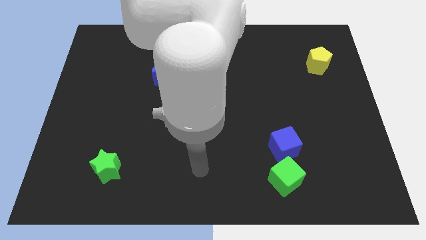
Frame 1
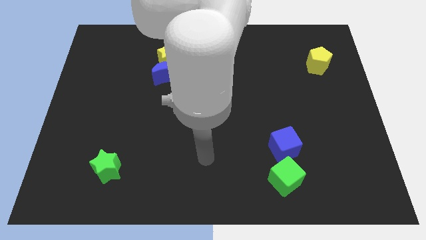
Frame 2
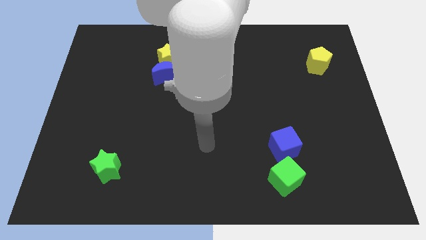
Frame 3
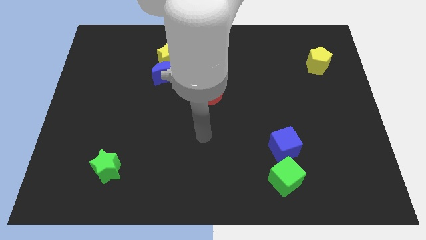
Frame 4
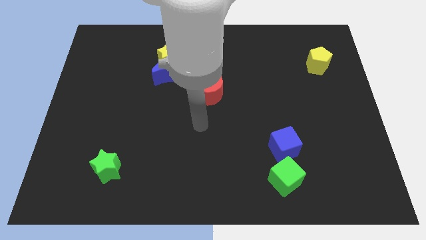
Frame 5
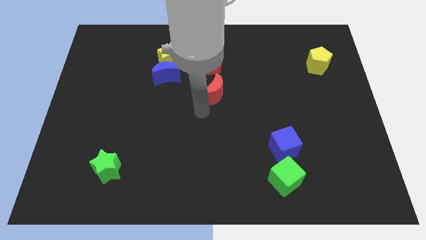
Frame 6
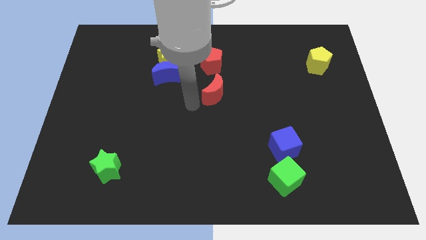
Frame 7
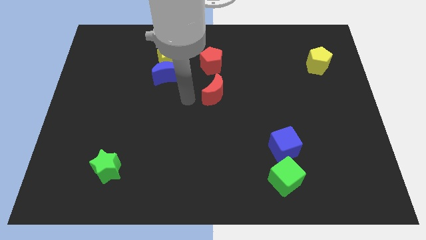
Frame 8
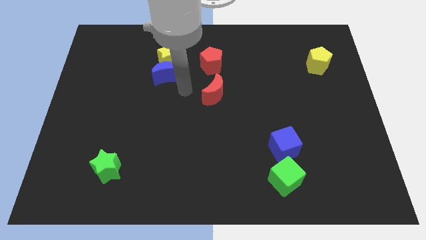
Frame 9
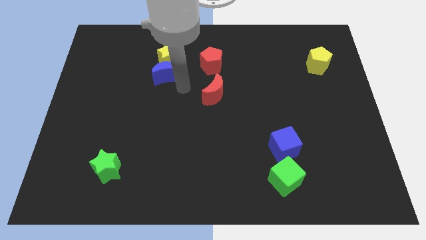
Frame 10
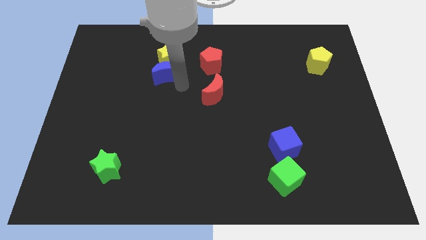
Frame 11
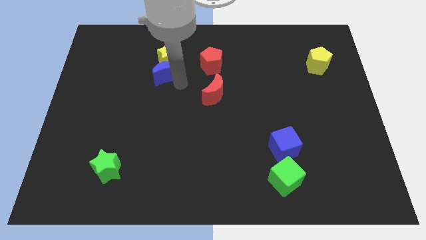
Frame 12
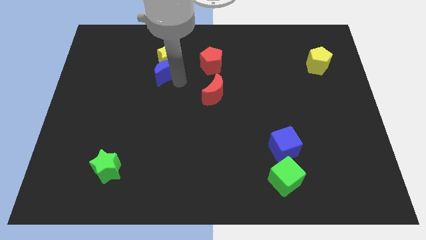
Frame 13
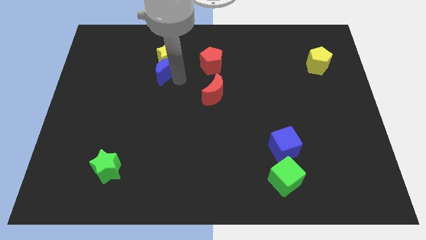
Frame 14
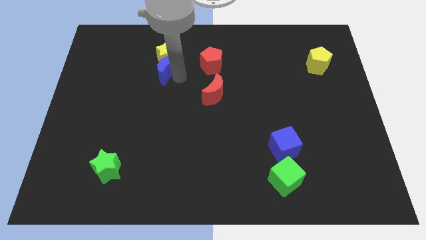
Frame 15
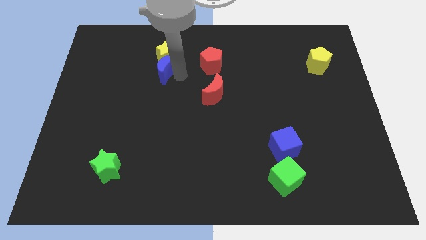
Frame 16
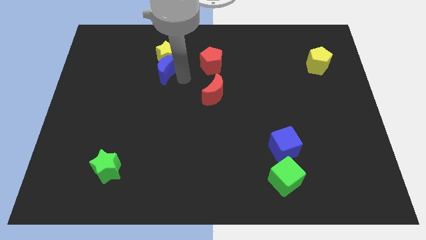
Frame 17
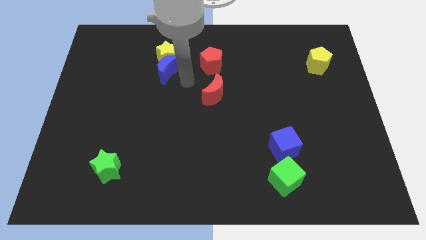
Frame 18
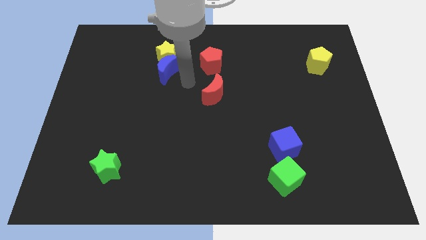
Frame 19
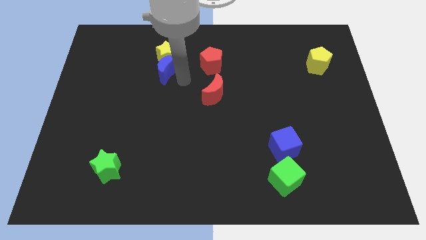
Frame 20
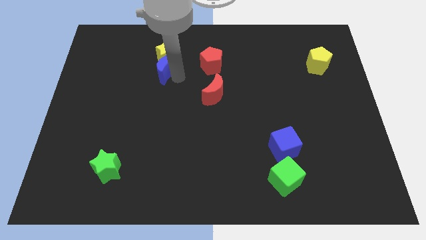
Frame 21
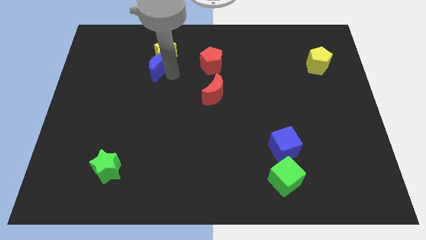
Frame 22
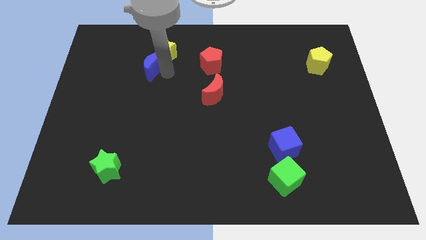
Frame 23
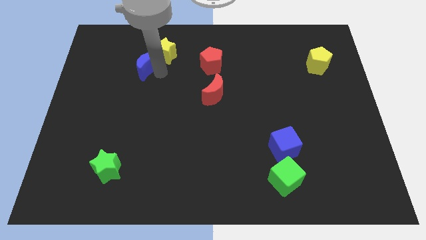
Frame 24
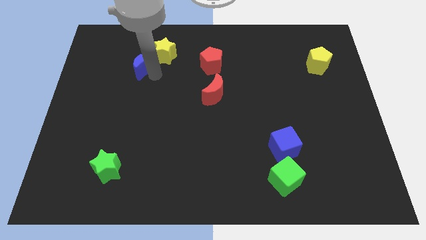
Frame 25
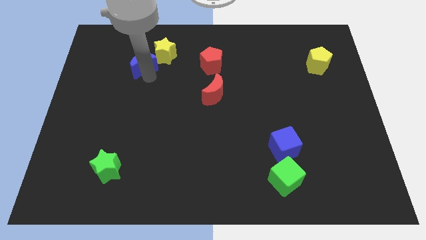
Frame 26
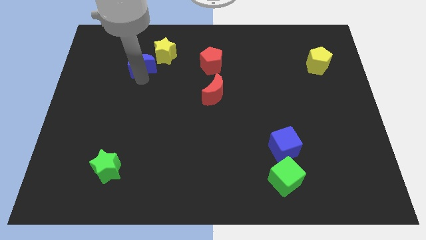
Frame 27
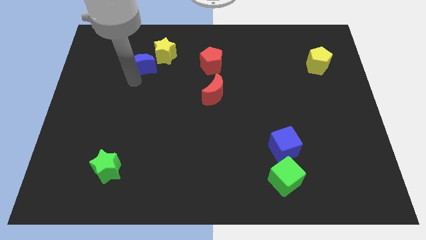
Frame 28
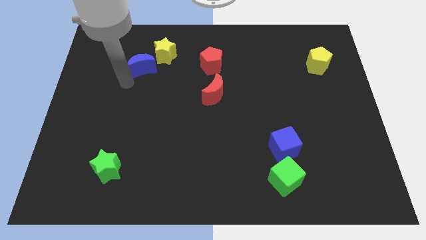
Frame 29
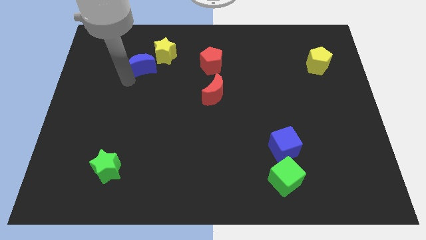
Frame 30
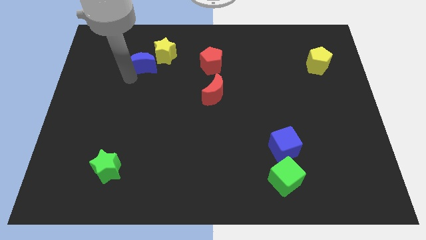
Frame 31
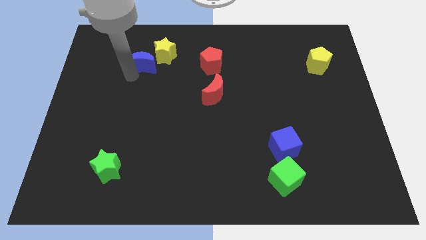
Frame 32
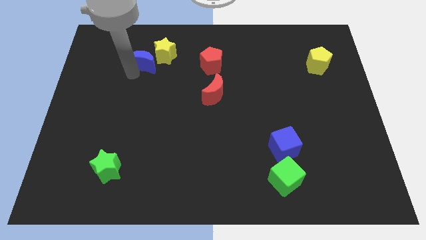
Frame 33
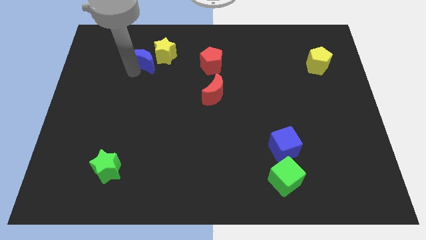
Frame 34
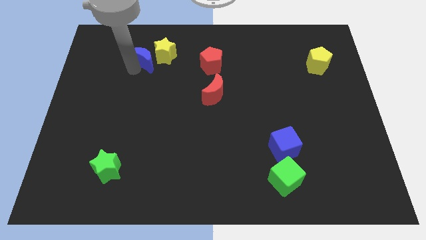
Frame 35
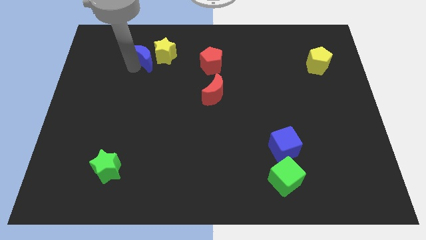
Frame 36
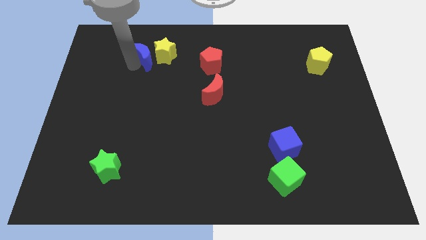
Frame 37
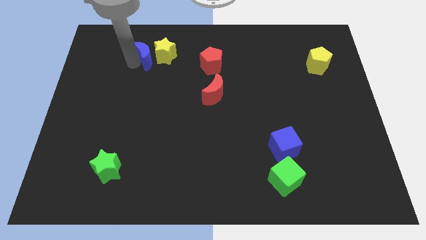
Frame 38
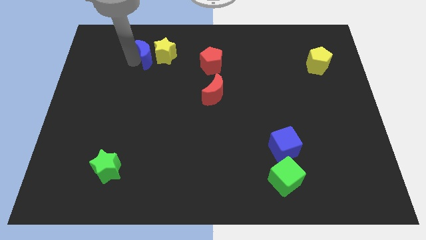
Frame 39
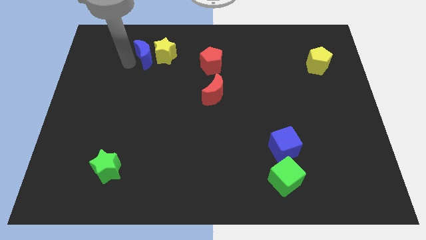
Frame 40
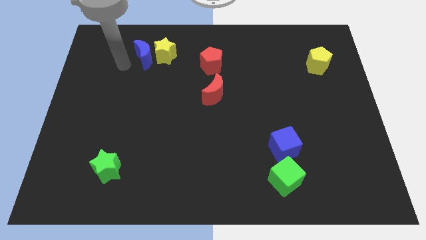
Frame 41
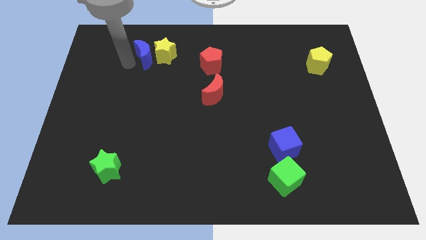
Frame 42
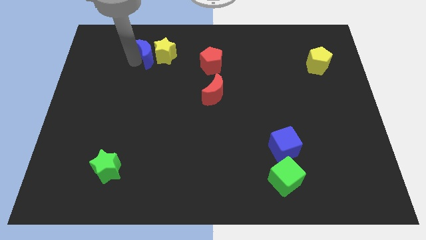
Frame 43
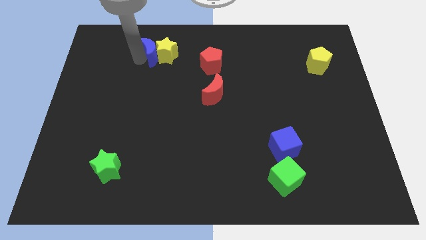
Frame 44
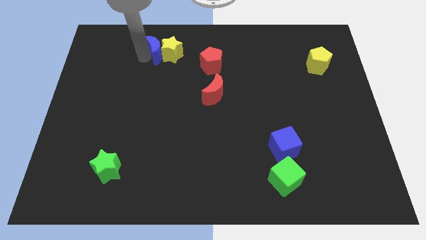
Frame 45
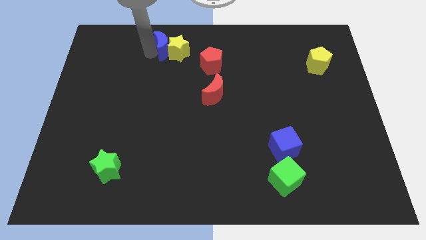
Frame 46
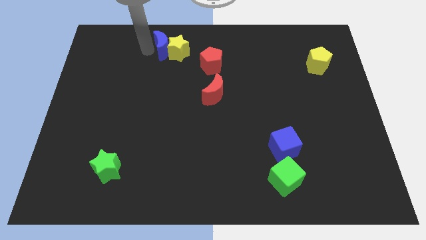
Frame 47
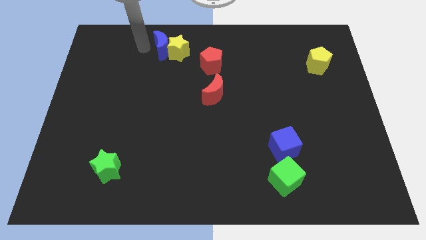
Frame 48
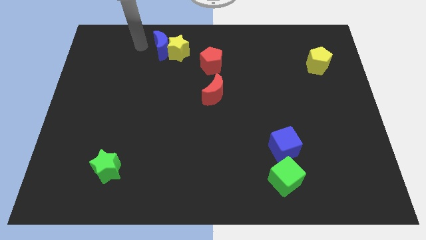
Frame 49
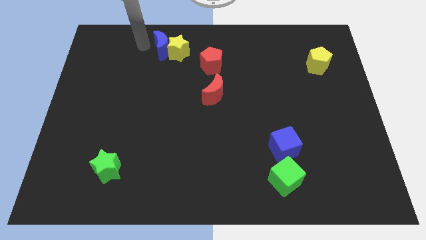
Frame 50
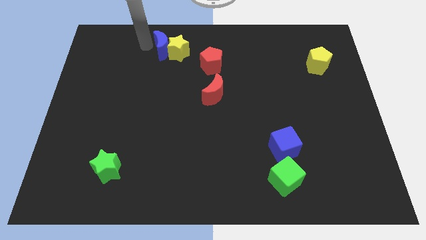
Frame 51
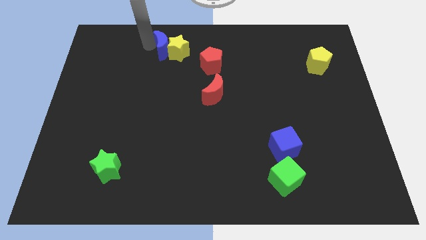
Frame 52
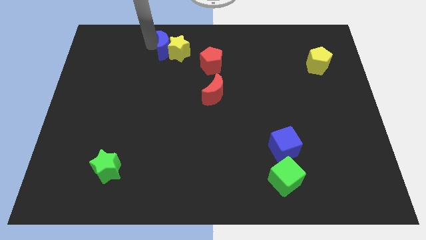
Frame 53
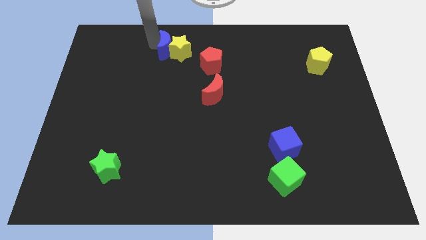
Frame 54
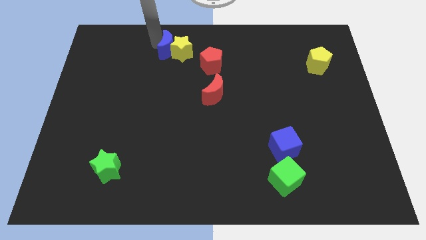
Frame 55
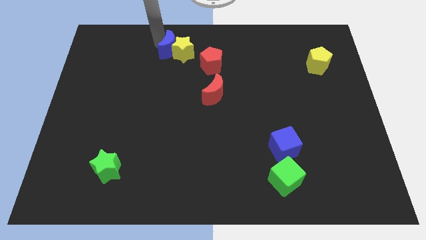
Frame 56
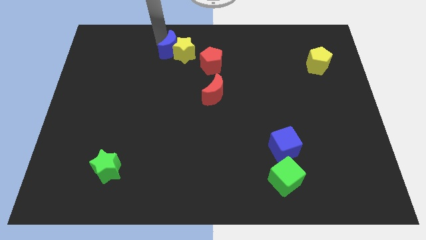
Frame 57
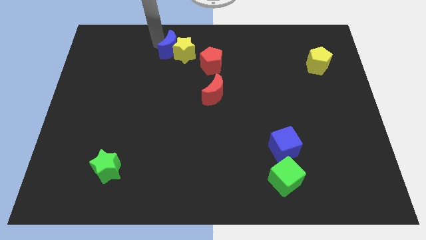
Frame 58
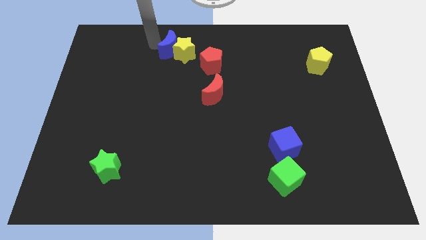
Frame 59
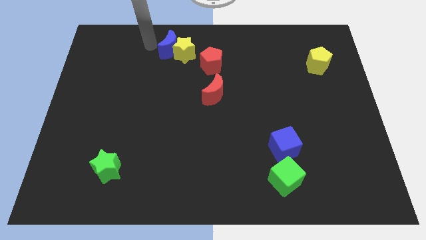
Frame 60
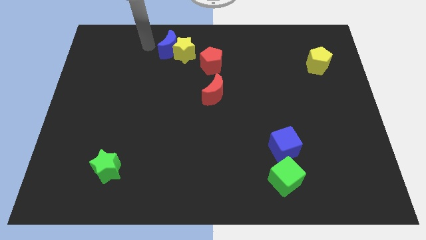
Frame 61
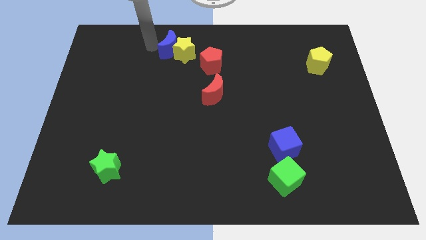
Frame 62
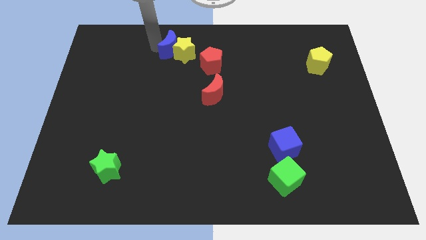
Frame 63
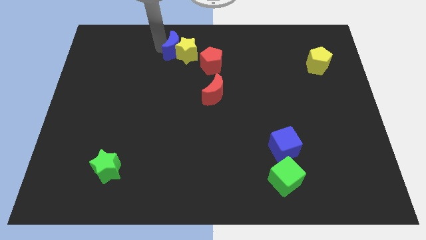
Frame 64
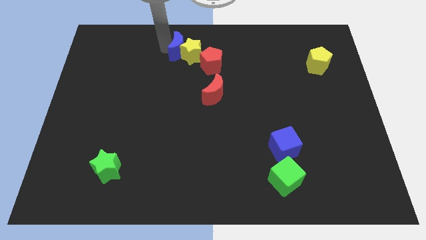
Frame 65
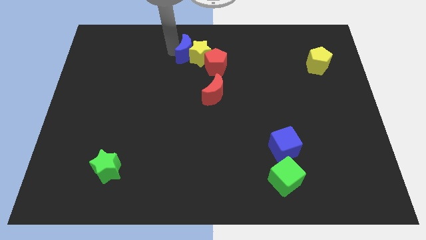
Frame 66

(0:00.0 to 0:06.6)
slide the blue moon to the top

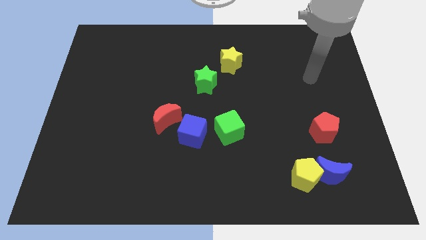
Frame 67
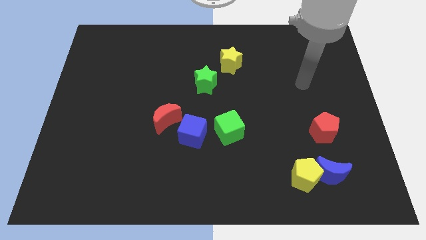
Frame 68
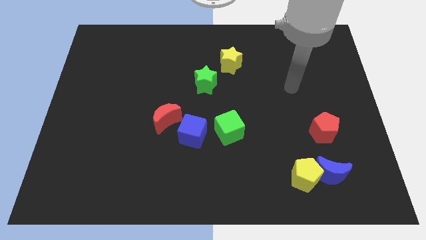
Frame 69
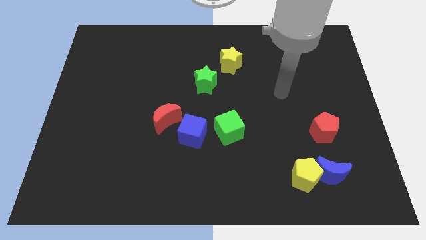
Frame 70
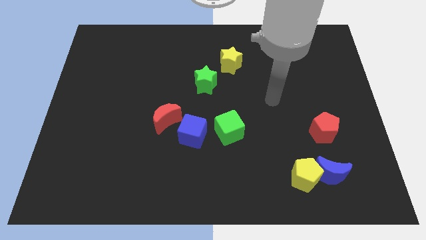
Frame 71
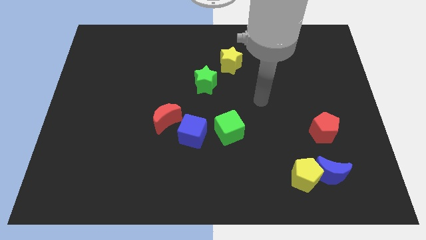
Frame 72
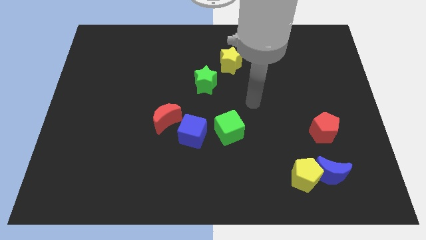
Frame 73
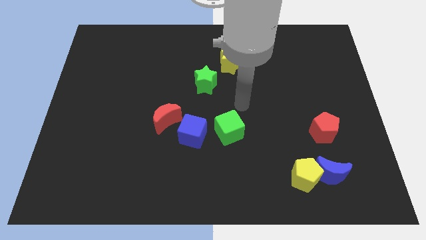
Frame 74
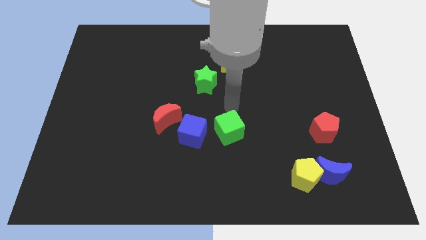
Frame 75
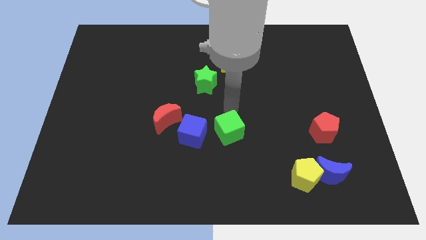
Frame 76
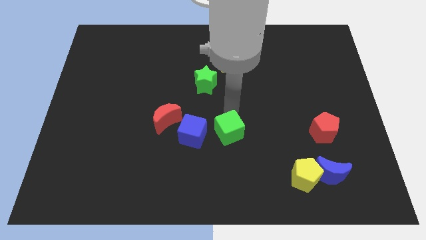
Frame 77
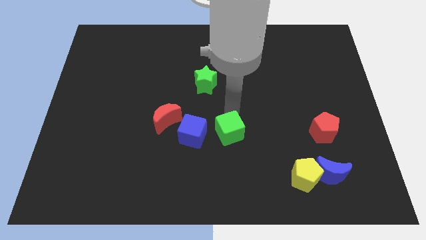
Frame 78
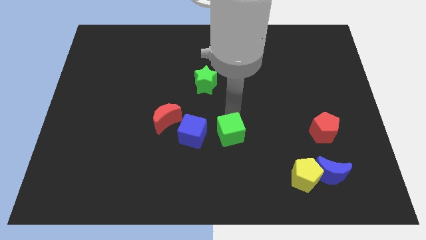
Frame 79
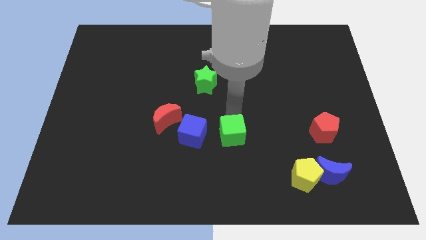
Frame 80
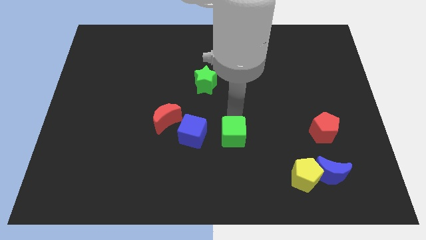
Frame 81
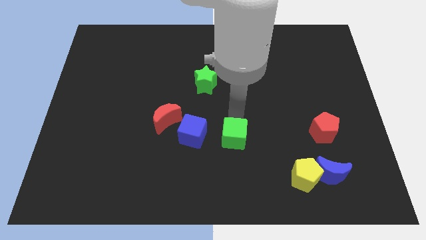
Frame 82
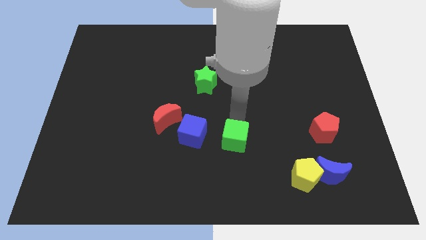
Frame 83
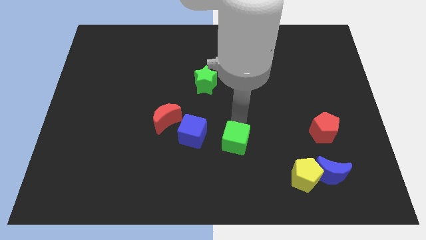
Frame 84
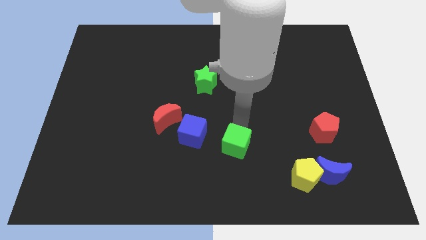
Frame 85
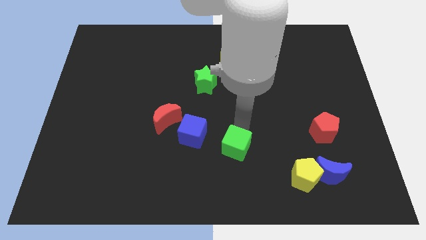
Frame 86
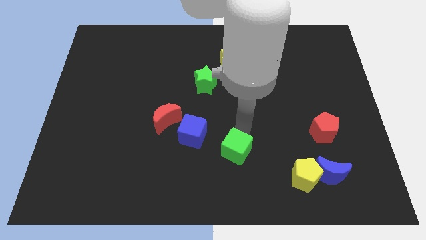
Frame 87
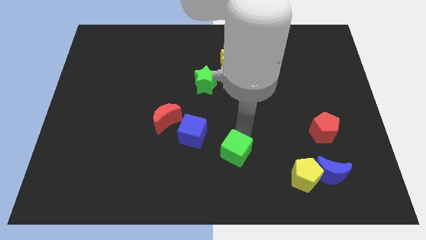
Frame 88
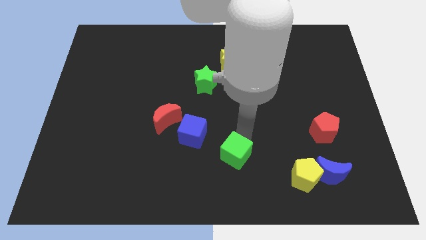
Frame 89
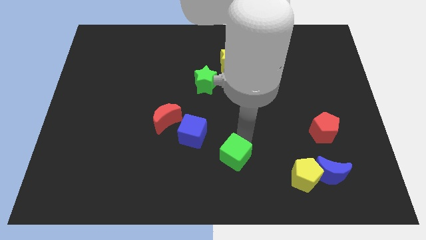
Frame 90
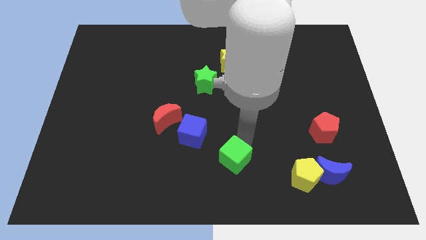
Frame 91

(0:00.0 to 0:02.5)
slide the green cube to the bottom
